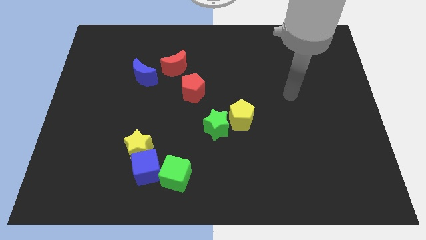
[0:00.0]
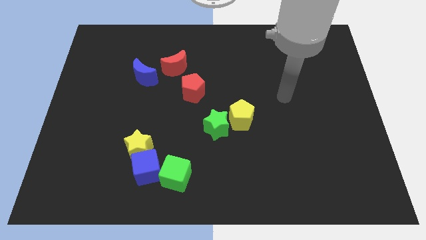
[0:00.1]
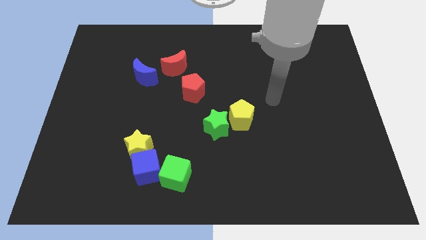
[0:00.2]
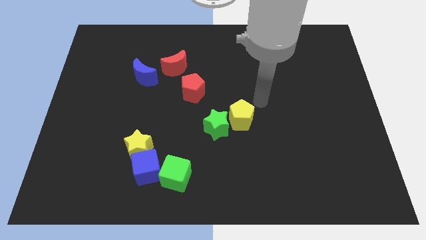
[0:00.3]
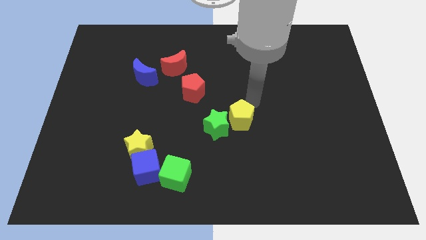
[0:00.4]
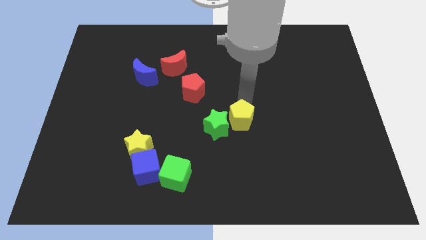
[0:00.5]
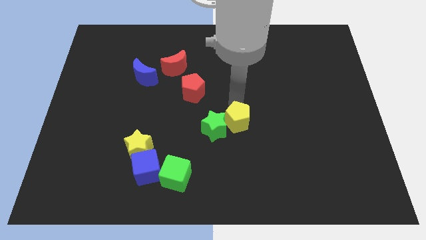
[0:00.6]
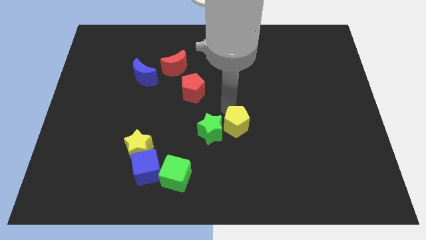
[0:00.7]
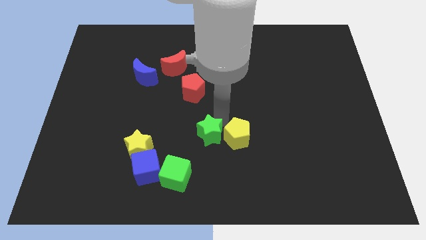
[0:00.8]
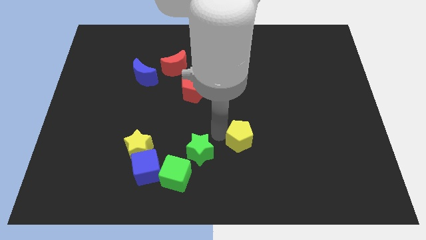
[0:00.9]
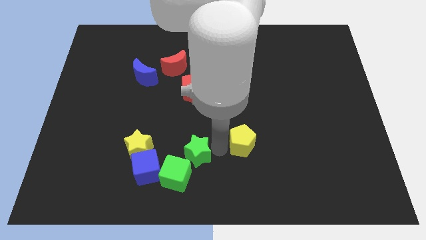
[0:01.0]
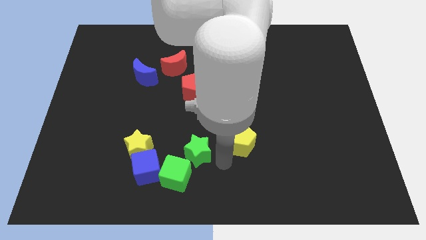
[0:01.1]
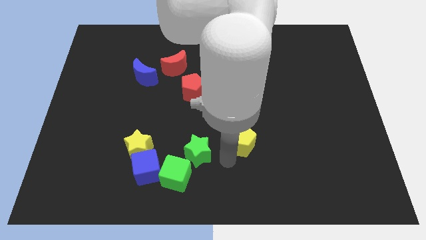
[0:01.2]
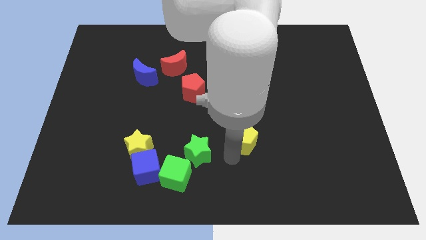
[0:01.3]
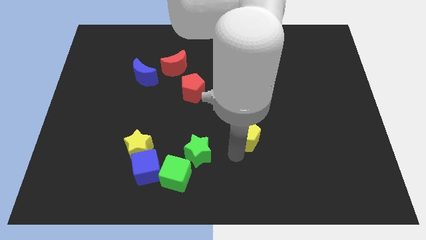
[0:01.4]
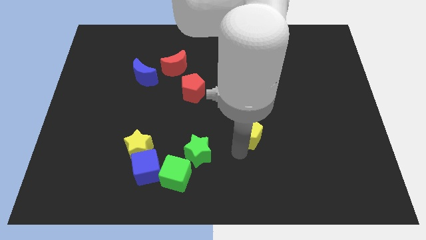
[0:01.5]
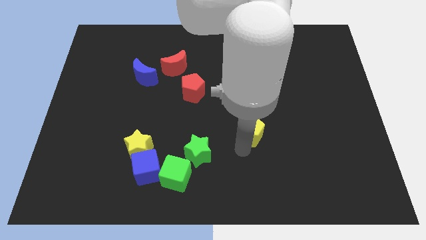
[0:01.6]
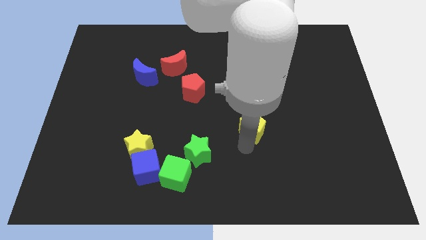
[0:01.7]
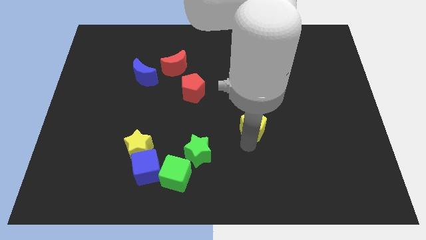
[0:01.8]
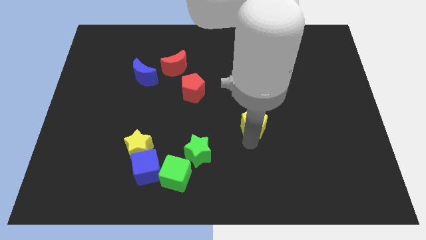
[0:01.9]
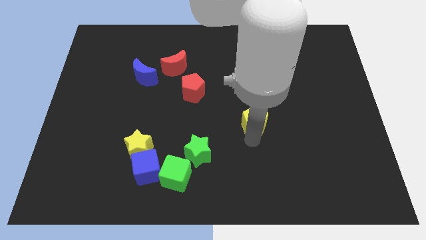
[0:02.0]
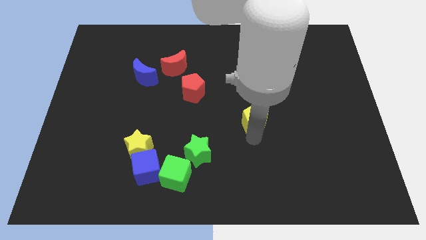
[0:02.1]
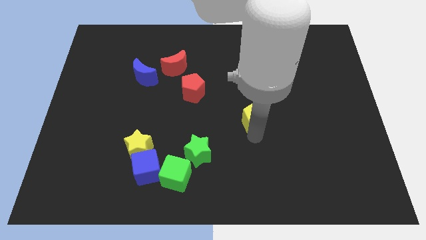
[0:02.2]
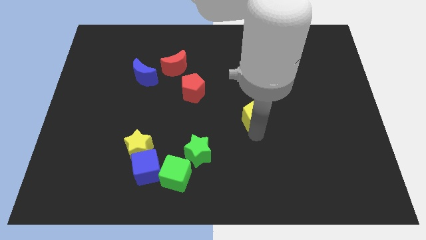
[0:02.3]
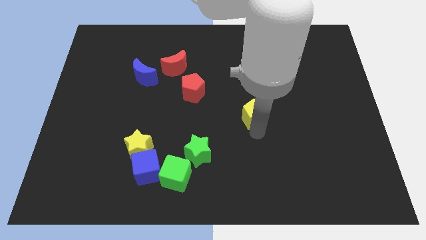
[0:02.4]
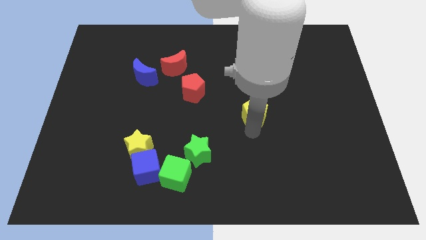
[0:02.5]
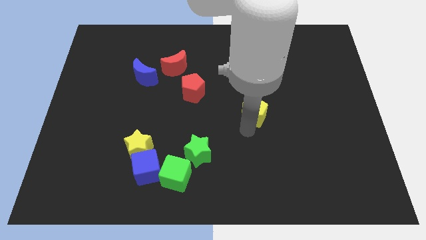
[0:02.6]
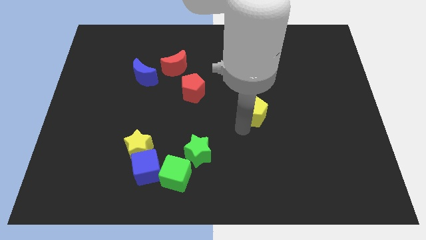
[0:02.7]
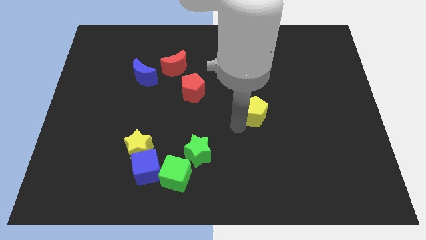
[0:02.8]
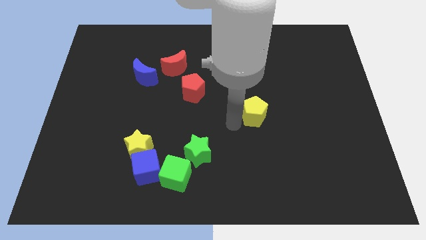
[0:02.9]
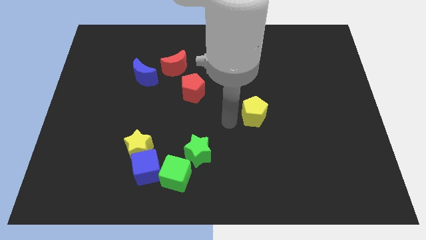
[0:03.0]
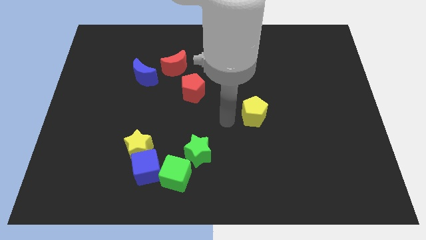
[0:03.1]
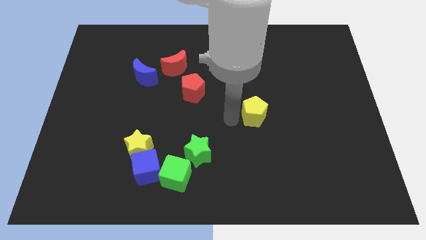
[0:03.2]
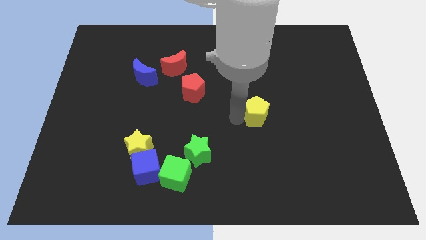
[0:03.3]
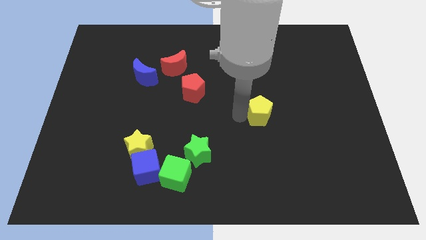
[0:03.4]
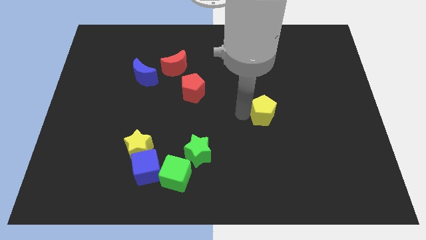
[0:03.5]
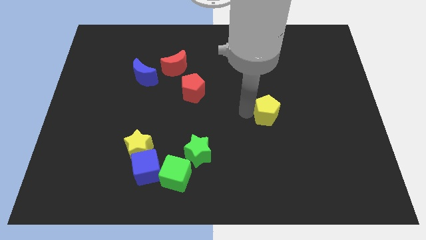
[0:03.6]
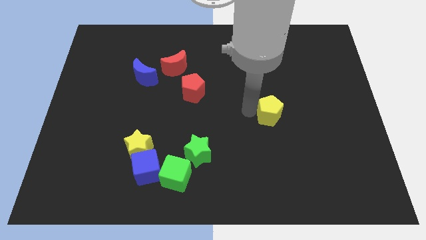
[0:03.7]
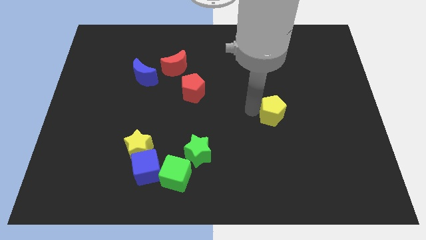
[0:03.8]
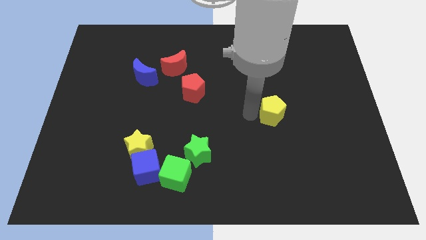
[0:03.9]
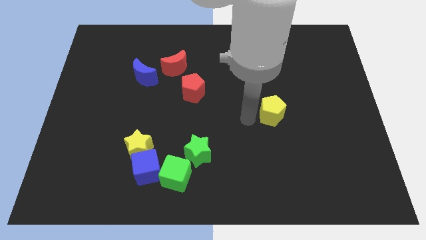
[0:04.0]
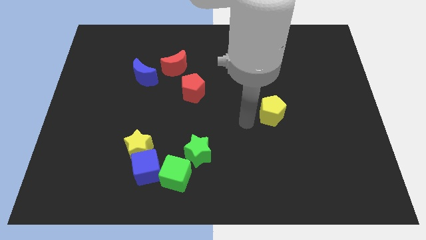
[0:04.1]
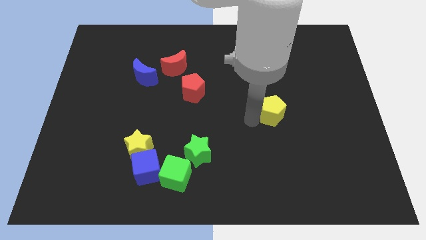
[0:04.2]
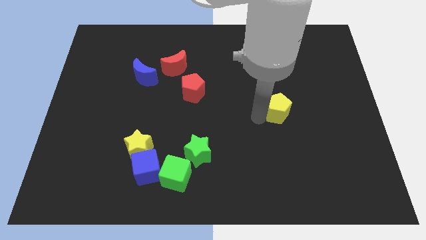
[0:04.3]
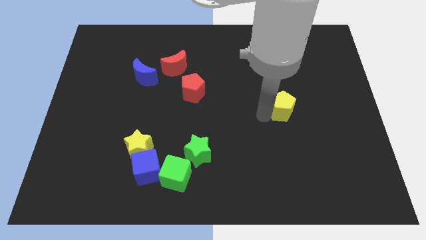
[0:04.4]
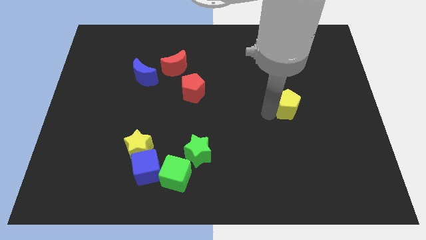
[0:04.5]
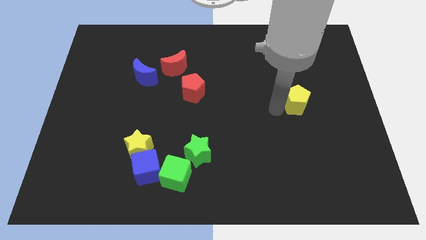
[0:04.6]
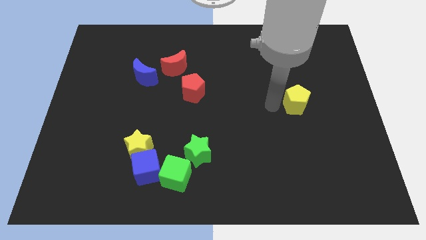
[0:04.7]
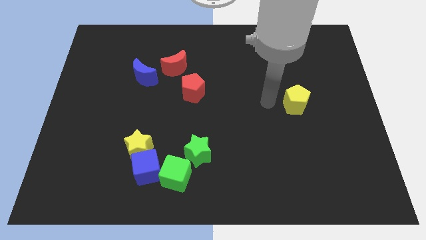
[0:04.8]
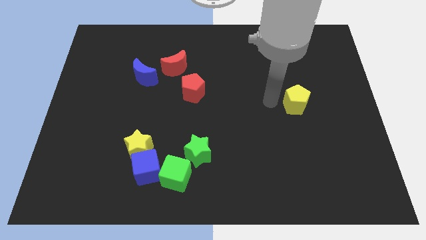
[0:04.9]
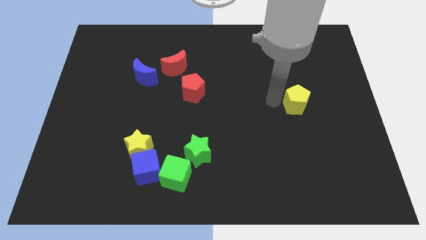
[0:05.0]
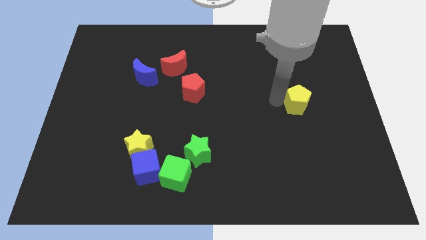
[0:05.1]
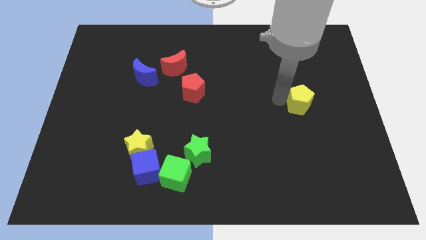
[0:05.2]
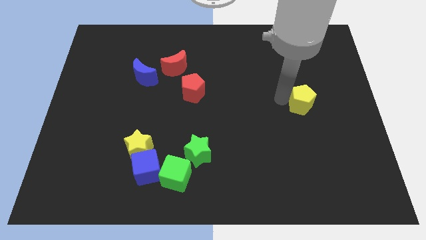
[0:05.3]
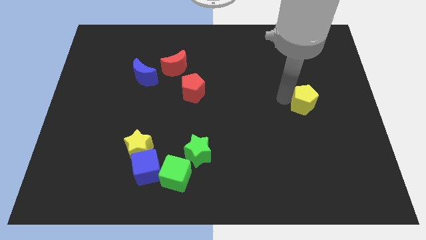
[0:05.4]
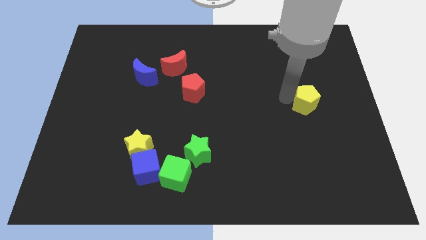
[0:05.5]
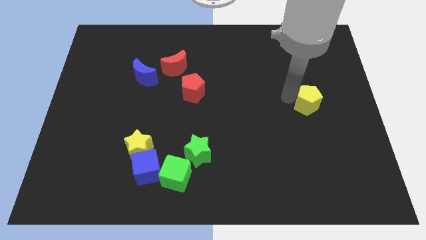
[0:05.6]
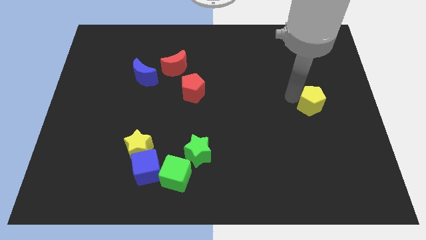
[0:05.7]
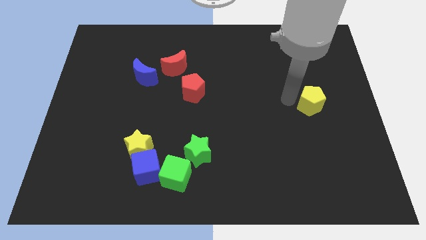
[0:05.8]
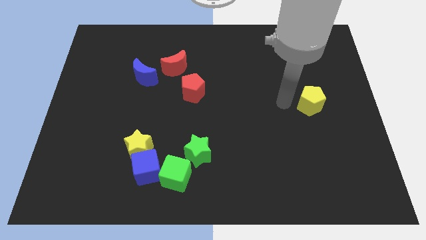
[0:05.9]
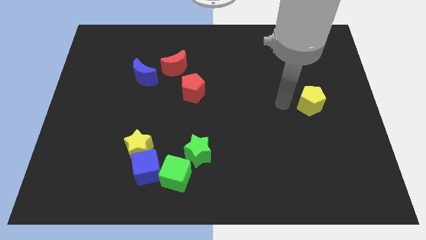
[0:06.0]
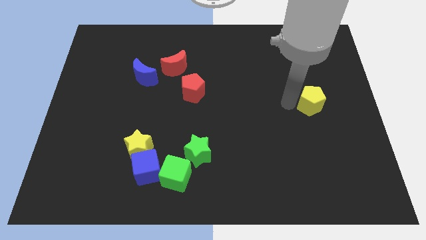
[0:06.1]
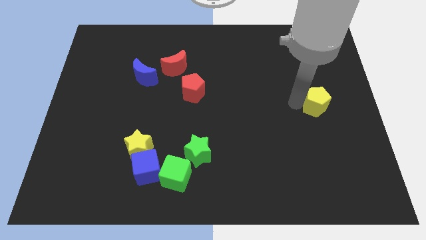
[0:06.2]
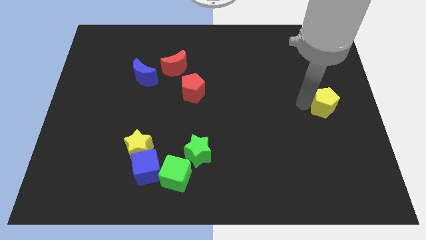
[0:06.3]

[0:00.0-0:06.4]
slide the yellow pentagon to the right side of the board
